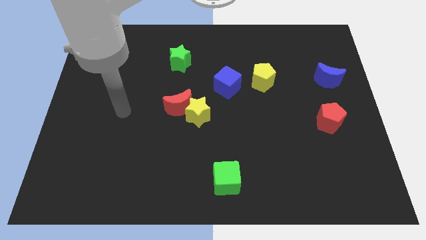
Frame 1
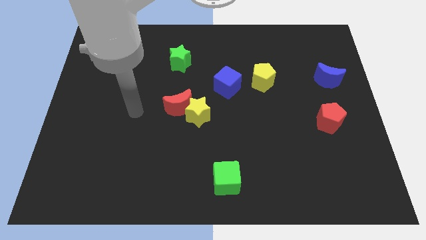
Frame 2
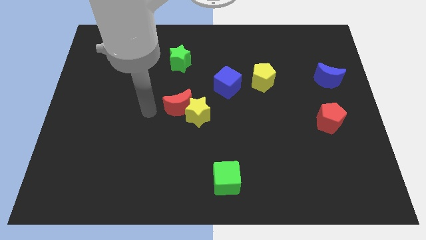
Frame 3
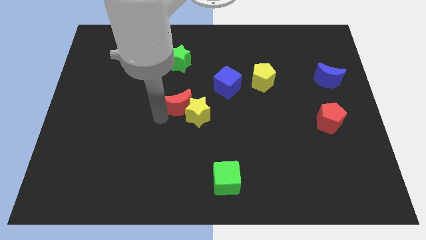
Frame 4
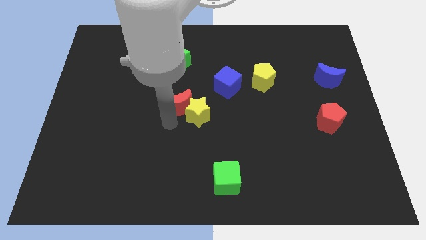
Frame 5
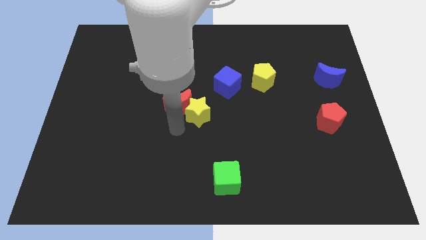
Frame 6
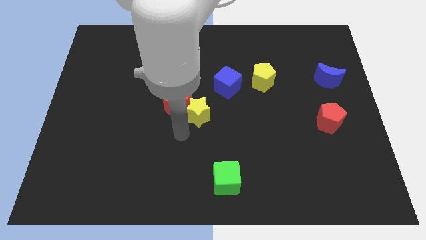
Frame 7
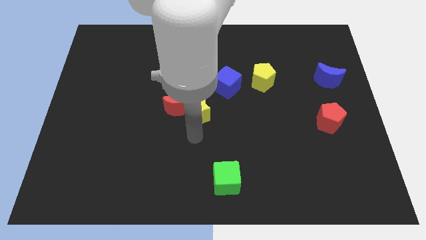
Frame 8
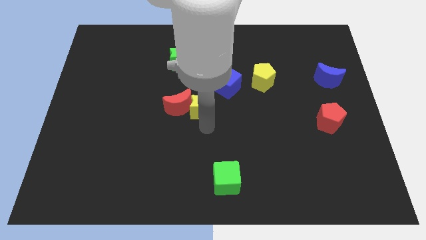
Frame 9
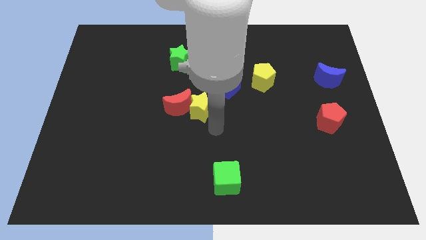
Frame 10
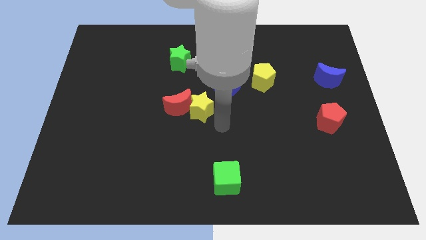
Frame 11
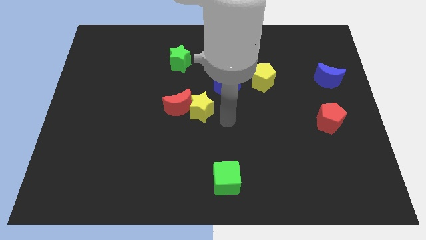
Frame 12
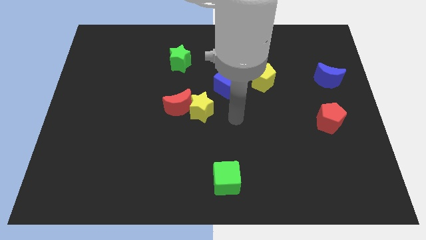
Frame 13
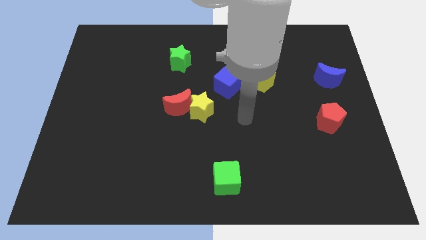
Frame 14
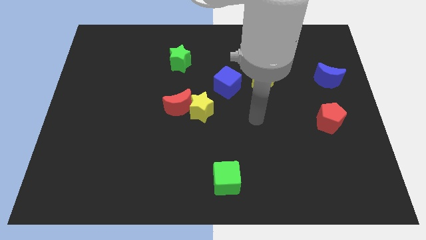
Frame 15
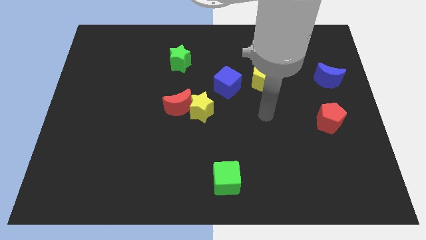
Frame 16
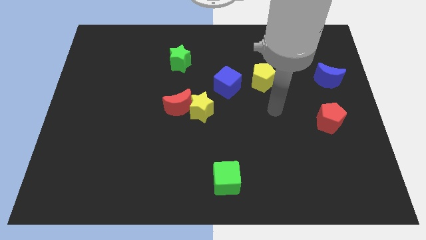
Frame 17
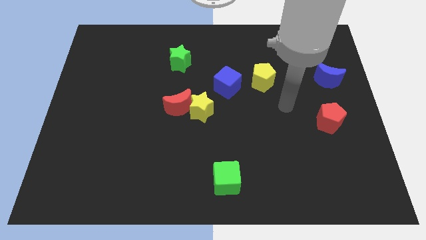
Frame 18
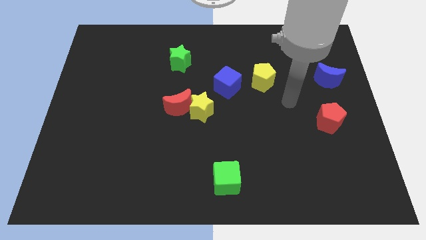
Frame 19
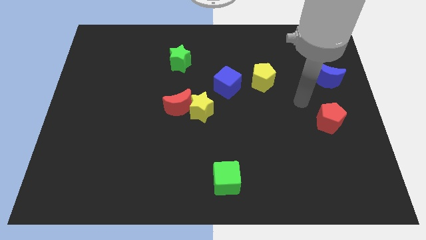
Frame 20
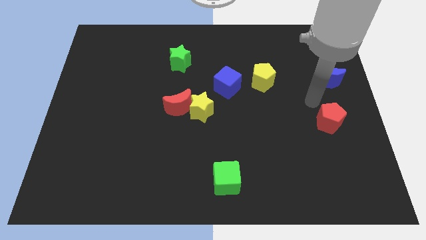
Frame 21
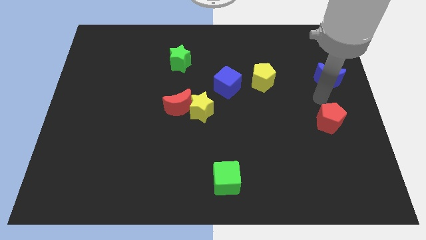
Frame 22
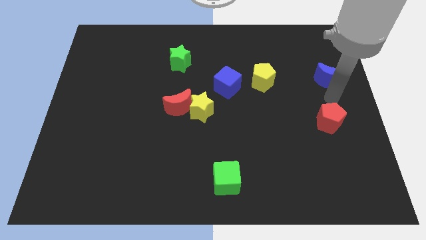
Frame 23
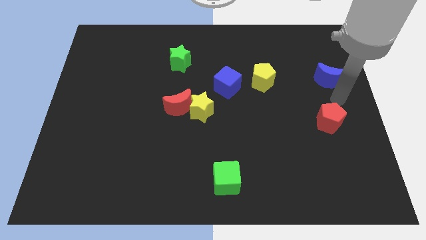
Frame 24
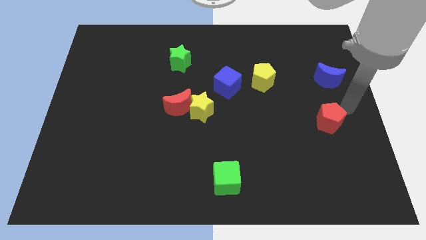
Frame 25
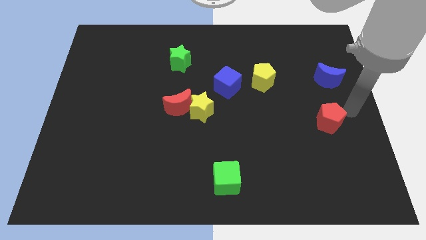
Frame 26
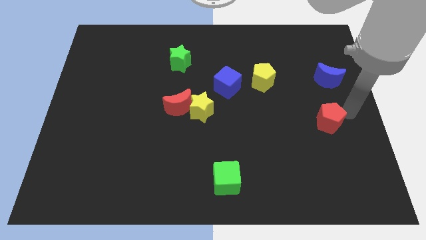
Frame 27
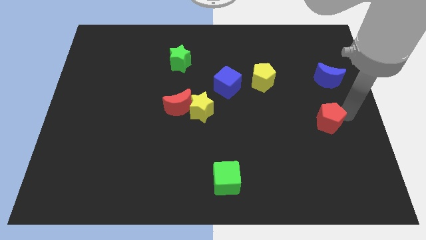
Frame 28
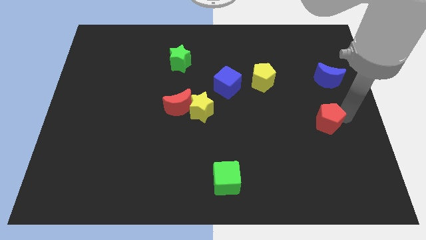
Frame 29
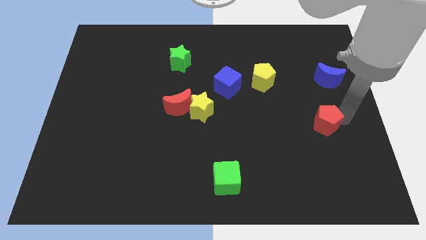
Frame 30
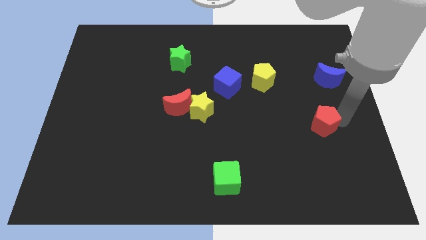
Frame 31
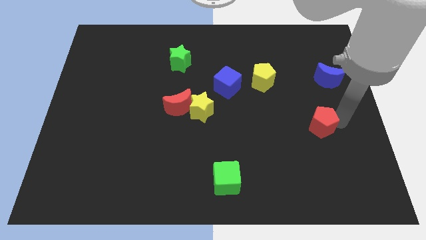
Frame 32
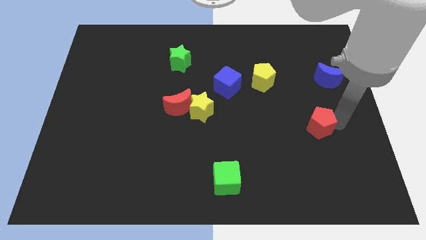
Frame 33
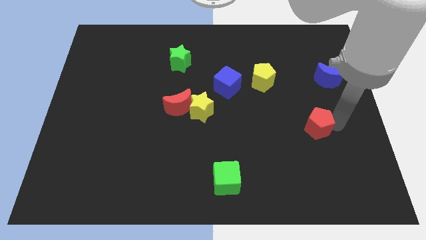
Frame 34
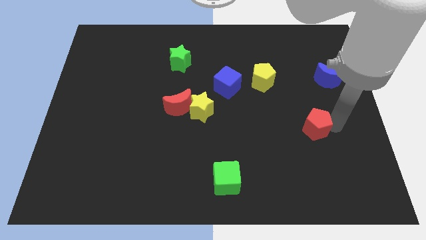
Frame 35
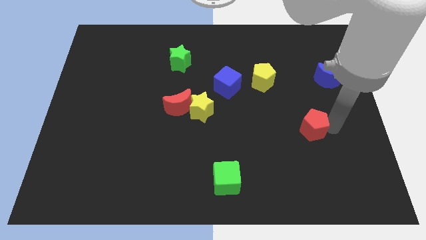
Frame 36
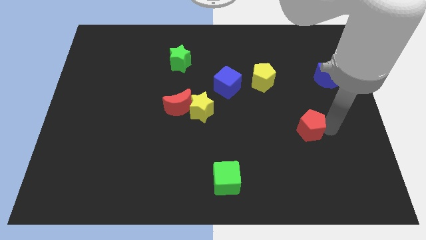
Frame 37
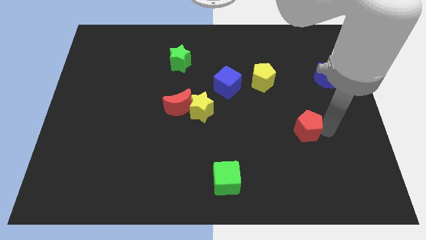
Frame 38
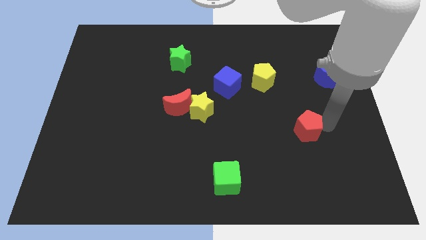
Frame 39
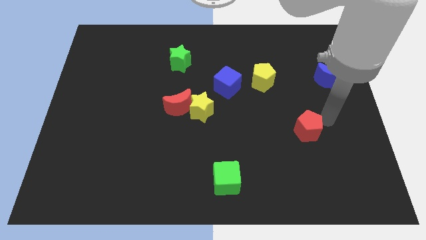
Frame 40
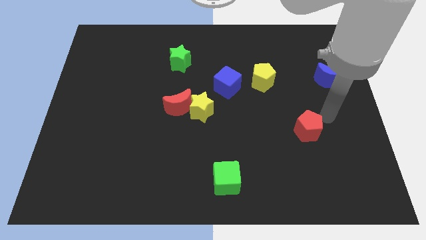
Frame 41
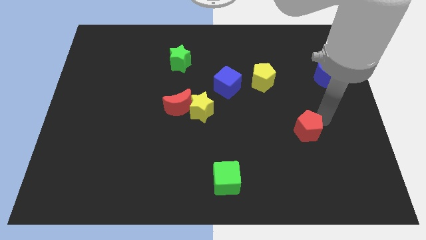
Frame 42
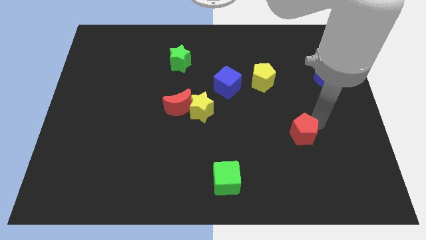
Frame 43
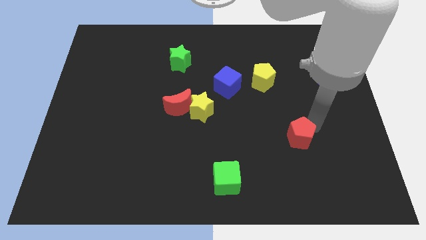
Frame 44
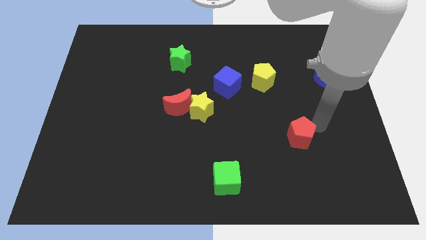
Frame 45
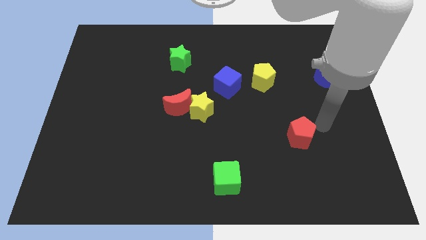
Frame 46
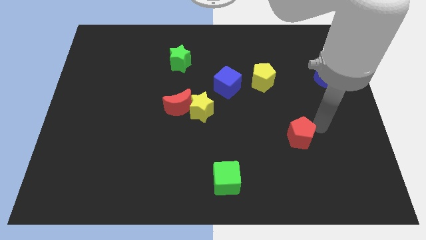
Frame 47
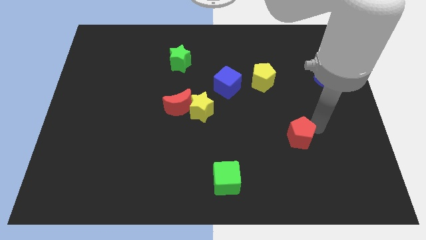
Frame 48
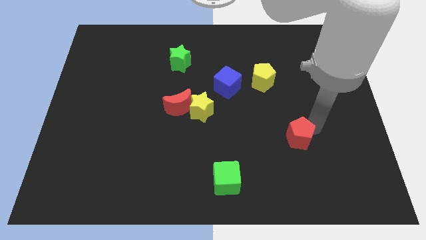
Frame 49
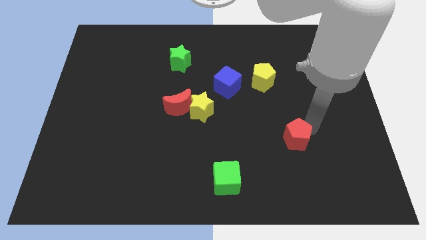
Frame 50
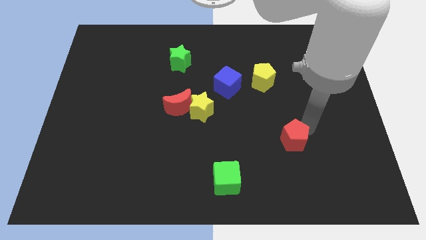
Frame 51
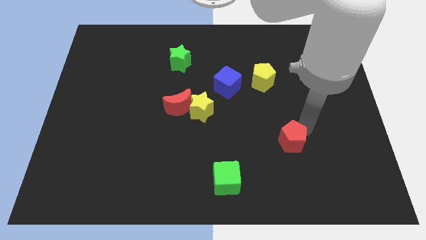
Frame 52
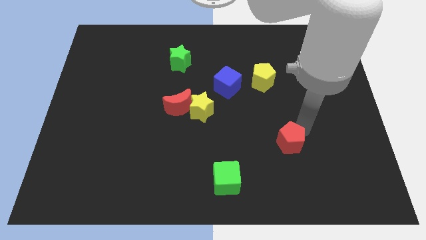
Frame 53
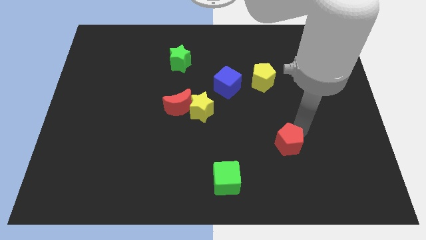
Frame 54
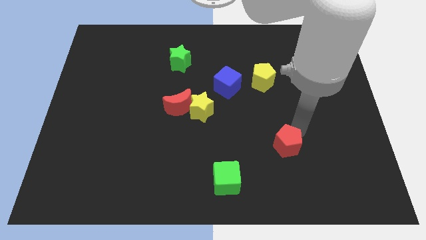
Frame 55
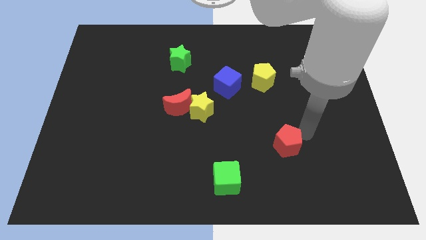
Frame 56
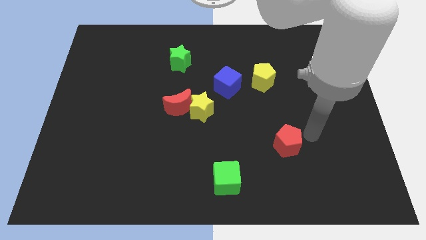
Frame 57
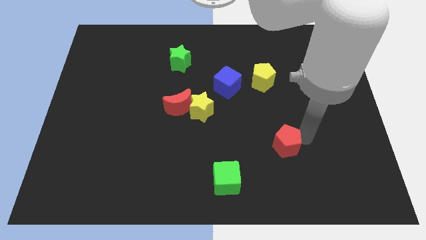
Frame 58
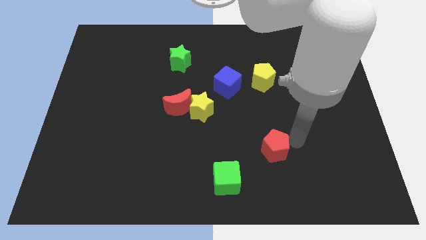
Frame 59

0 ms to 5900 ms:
move the red pentagon to the top right side of the green cube

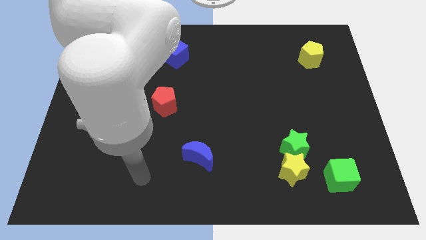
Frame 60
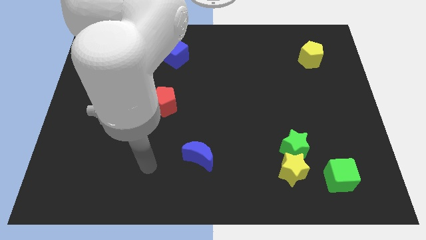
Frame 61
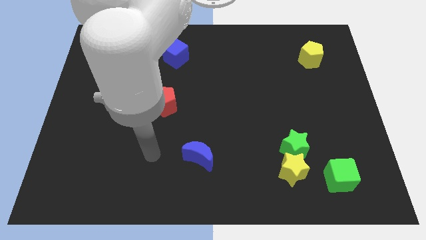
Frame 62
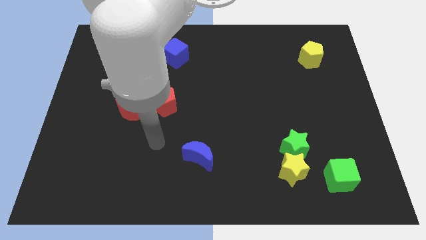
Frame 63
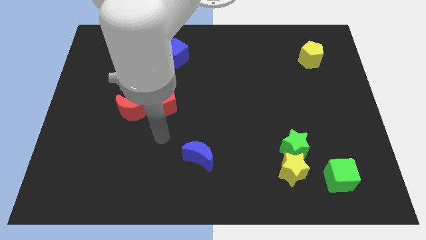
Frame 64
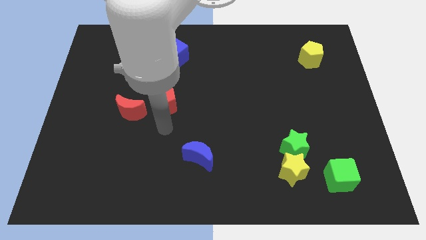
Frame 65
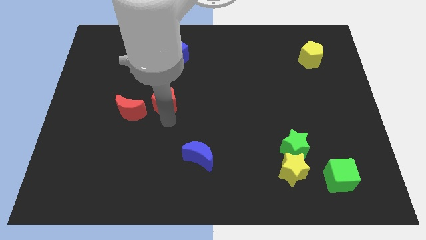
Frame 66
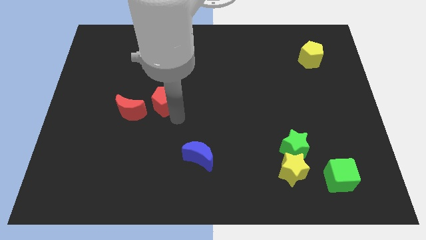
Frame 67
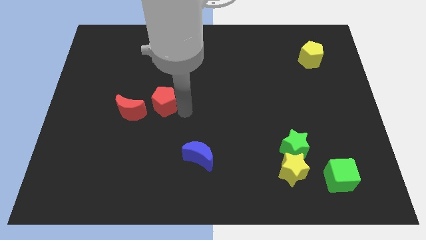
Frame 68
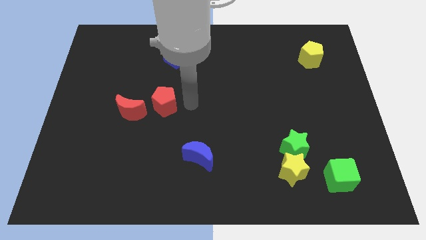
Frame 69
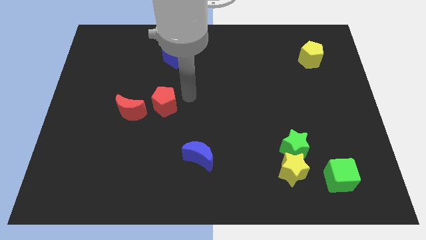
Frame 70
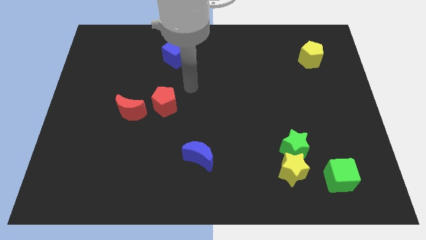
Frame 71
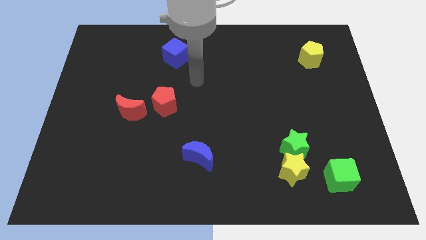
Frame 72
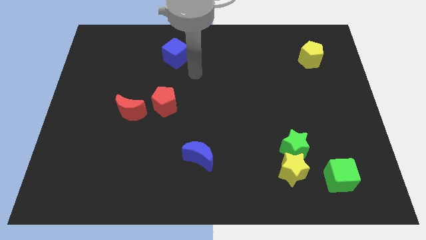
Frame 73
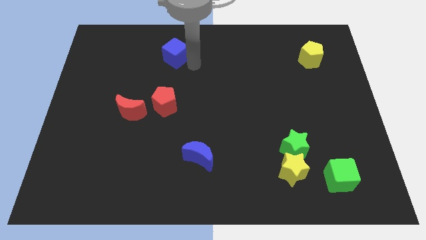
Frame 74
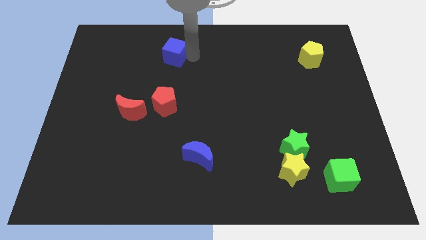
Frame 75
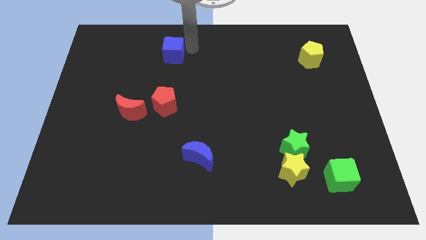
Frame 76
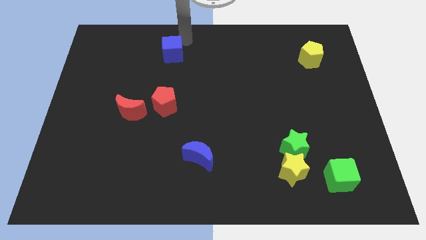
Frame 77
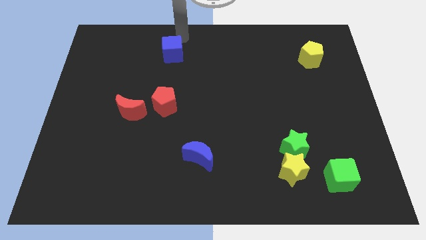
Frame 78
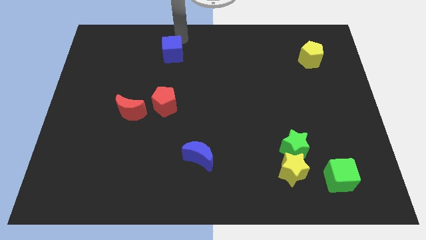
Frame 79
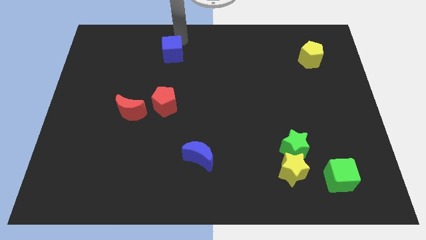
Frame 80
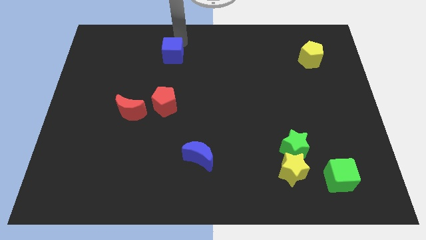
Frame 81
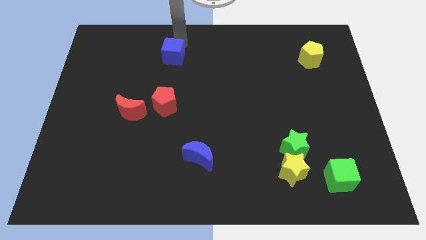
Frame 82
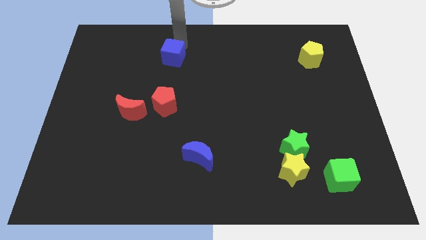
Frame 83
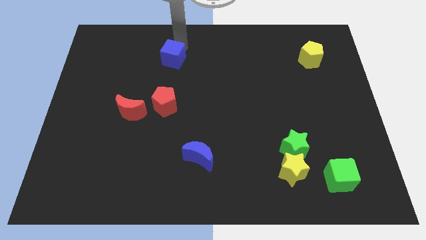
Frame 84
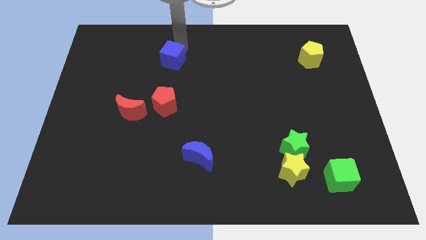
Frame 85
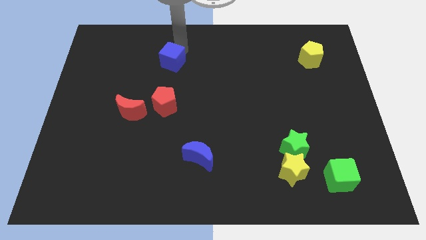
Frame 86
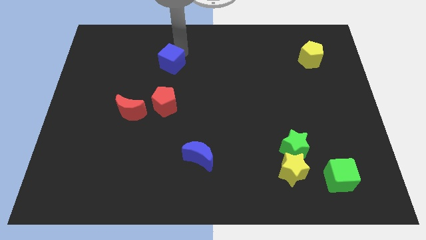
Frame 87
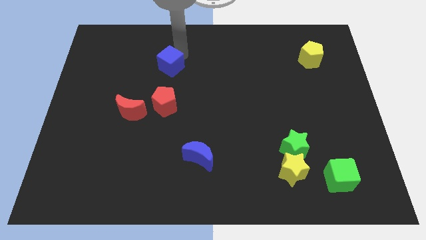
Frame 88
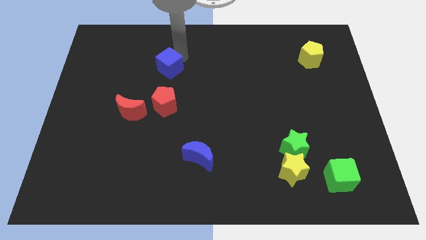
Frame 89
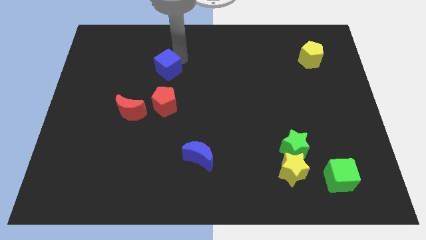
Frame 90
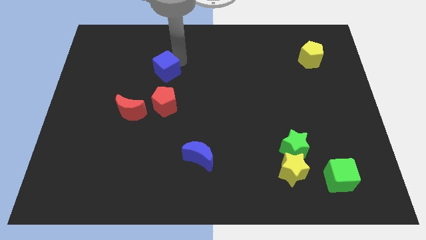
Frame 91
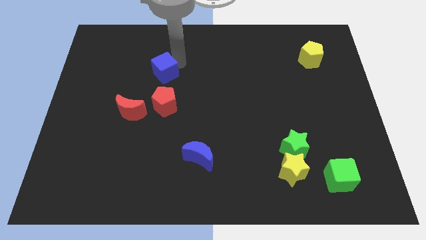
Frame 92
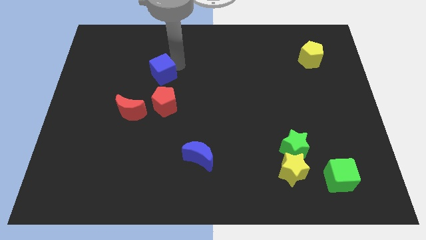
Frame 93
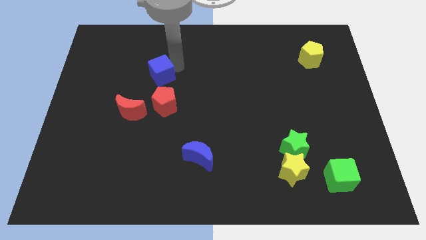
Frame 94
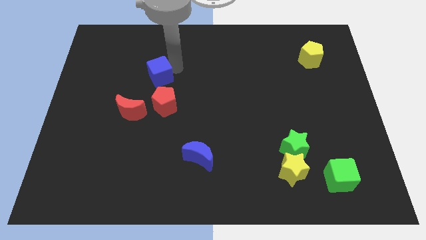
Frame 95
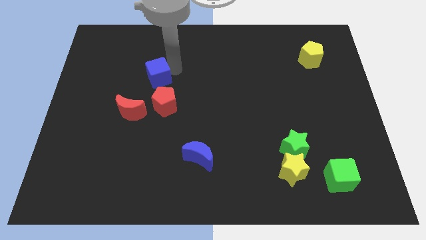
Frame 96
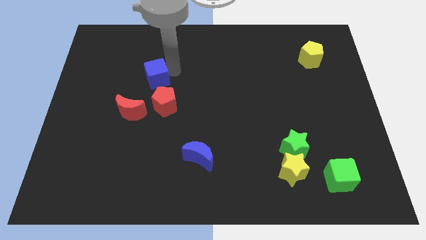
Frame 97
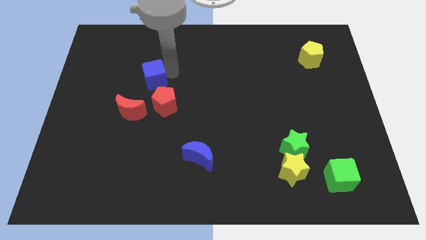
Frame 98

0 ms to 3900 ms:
move the blue cube to the top right side of the red moon
